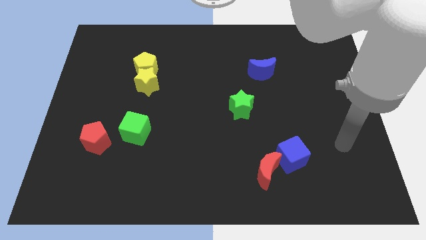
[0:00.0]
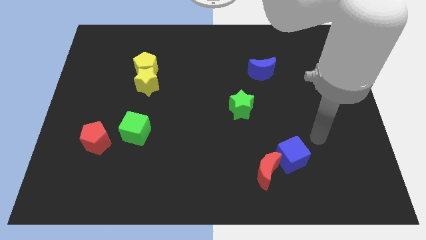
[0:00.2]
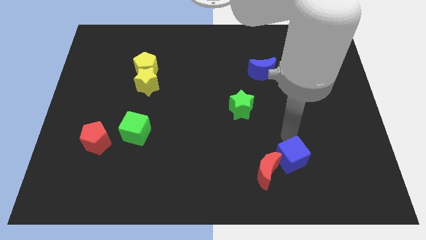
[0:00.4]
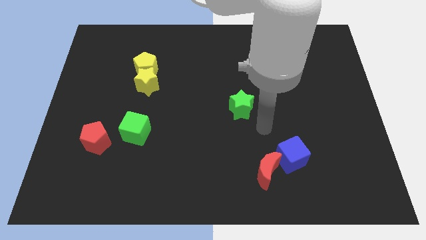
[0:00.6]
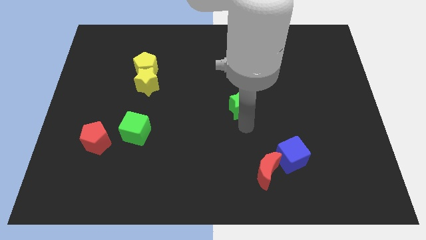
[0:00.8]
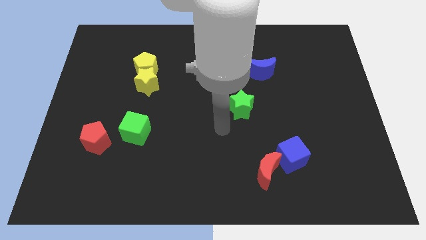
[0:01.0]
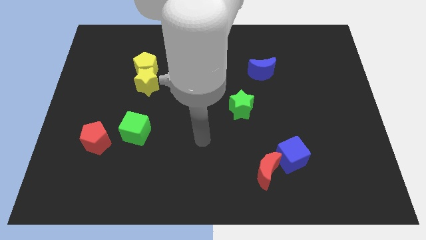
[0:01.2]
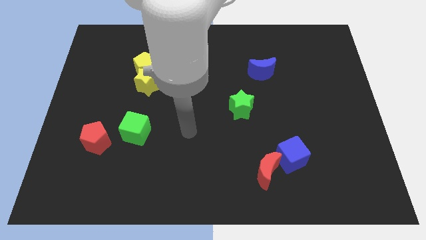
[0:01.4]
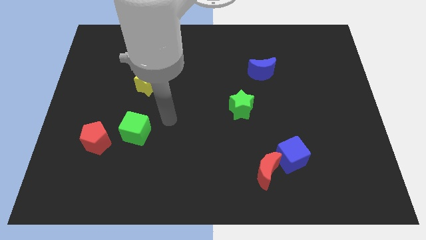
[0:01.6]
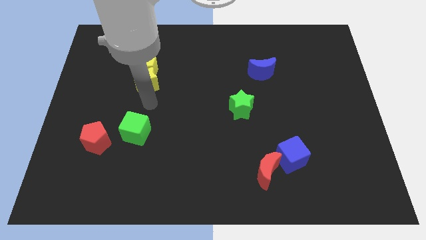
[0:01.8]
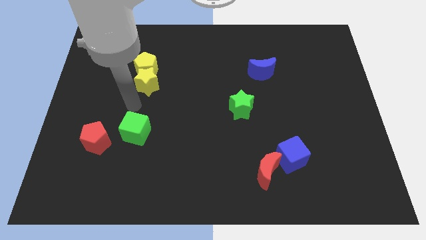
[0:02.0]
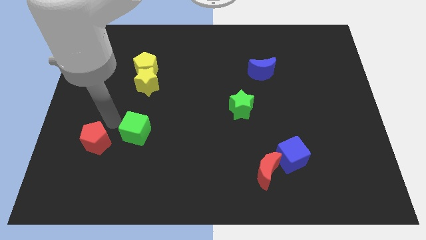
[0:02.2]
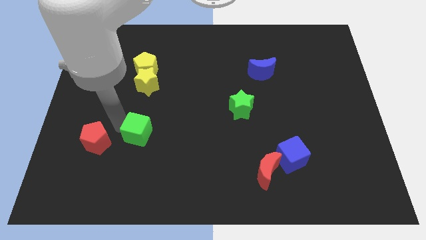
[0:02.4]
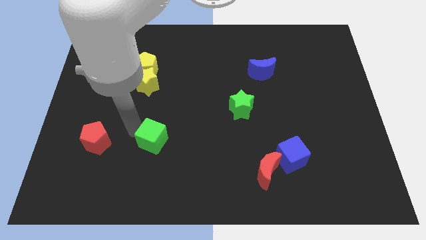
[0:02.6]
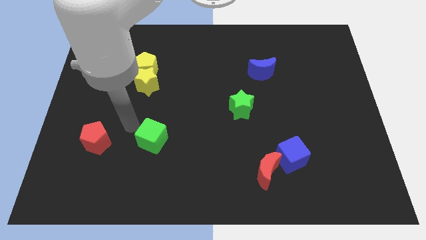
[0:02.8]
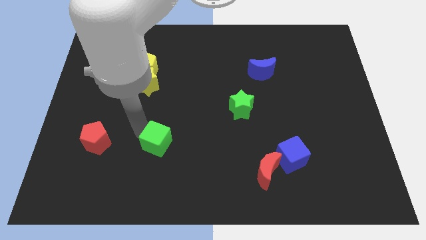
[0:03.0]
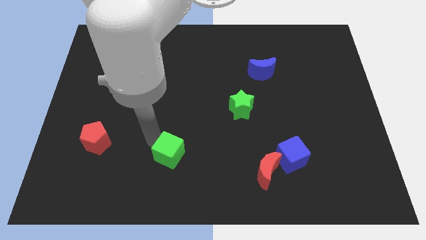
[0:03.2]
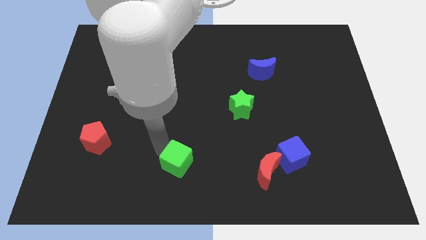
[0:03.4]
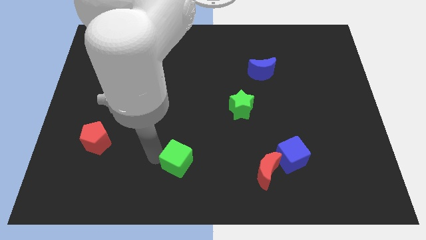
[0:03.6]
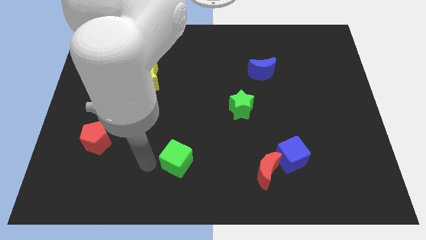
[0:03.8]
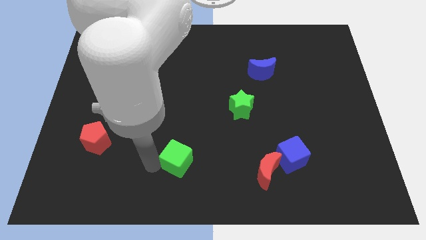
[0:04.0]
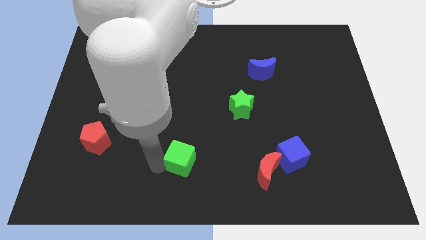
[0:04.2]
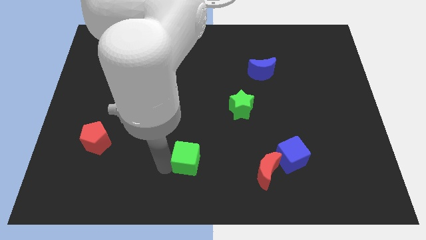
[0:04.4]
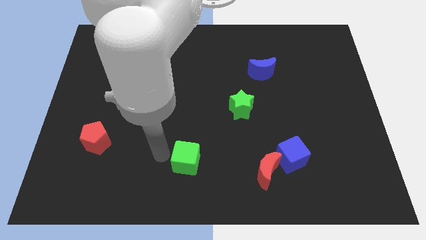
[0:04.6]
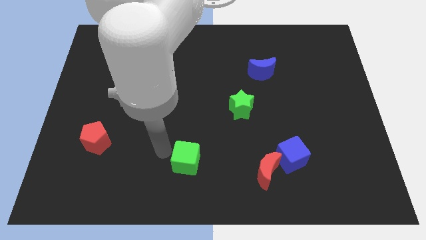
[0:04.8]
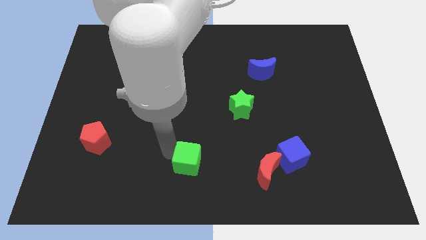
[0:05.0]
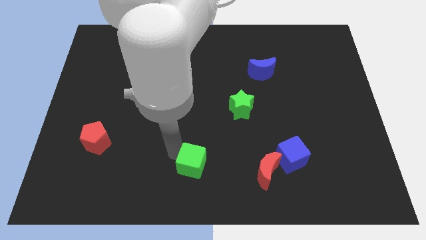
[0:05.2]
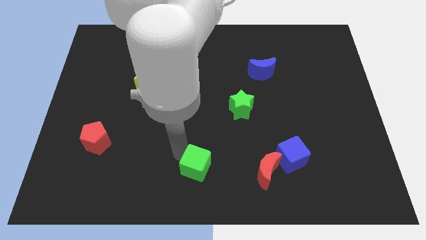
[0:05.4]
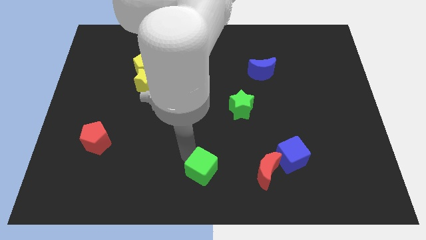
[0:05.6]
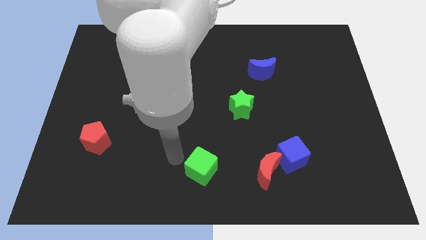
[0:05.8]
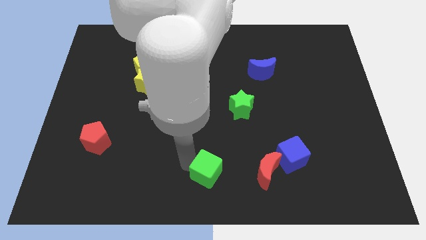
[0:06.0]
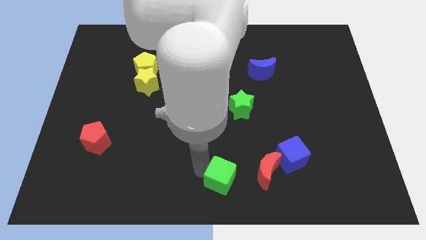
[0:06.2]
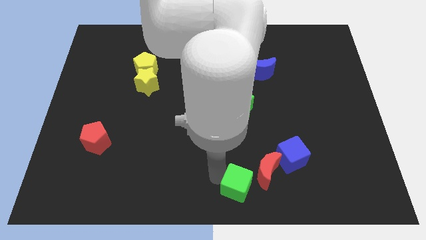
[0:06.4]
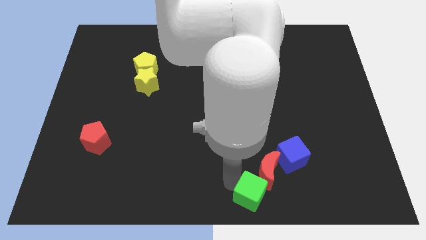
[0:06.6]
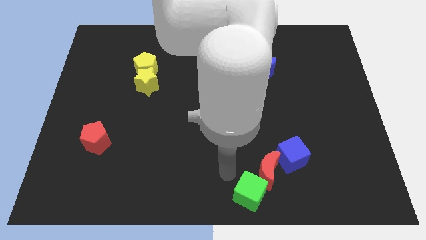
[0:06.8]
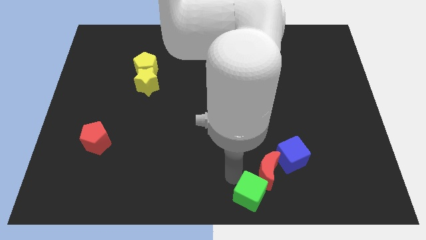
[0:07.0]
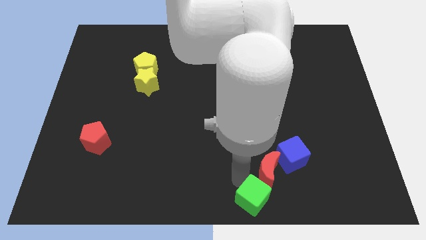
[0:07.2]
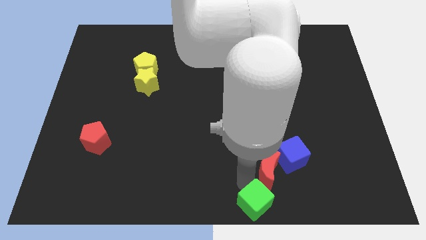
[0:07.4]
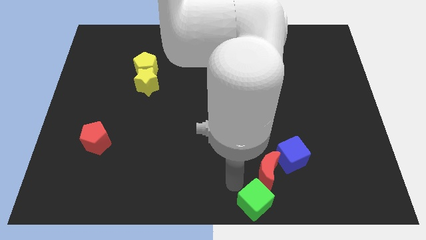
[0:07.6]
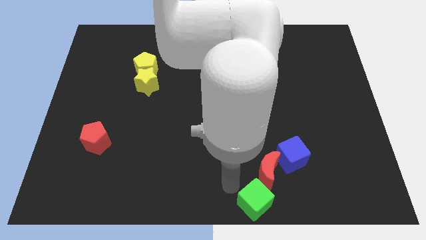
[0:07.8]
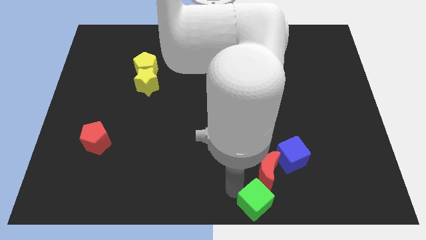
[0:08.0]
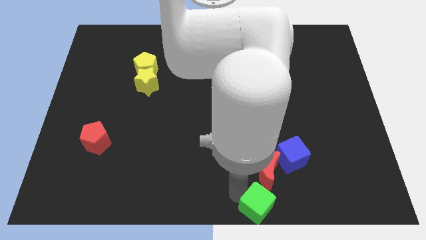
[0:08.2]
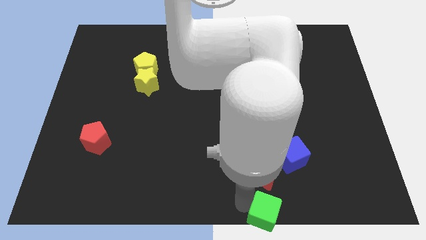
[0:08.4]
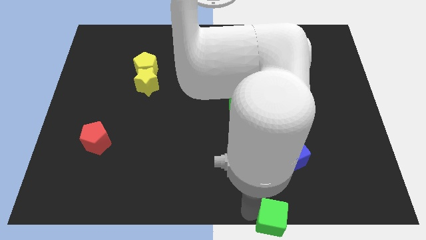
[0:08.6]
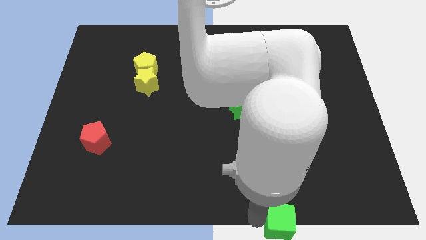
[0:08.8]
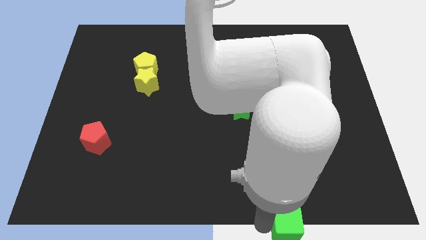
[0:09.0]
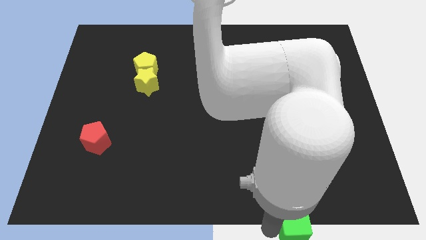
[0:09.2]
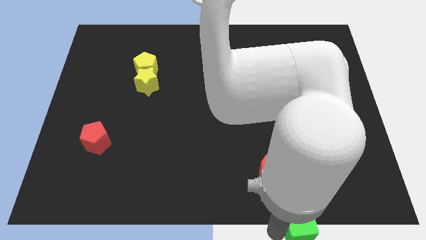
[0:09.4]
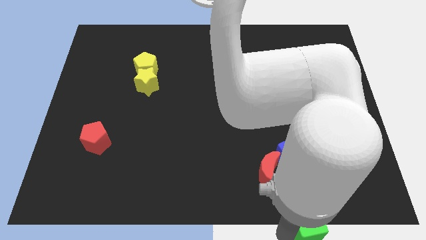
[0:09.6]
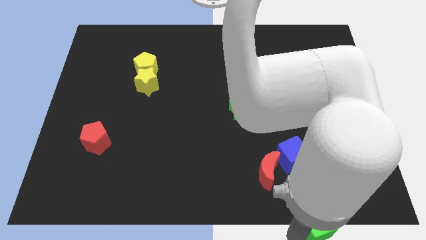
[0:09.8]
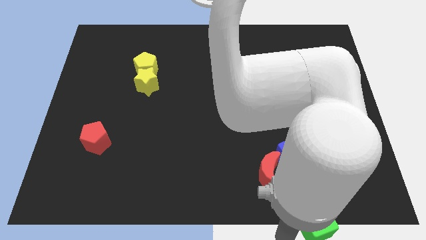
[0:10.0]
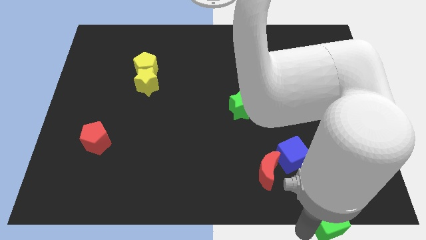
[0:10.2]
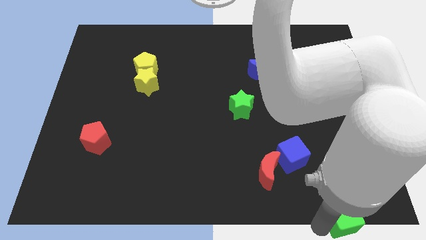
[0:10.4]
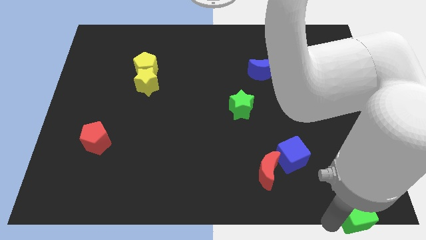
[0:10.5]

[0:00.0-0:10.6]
move the green cube to the bottom right of the board
